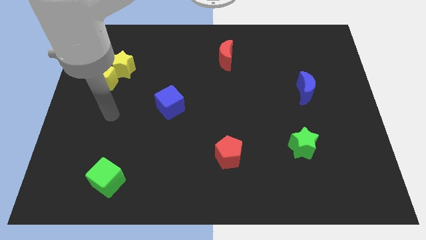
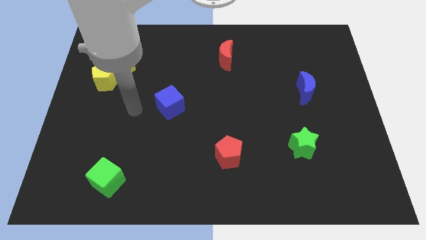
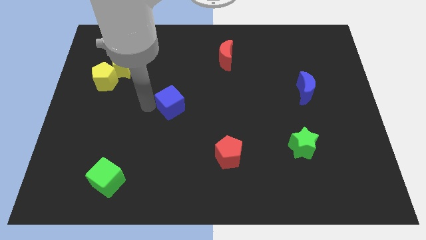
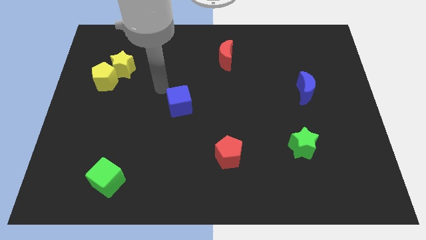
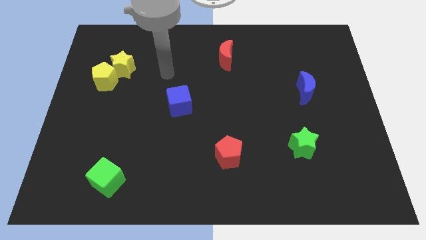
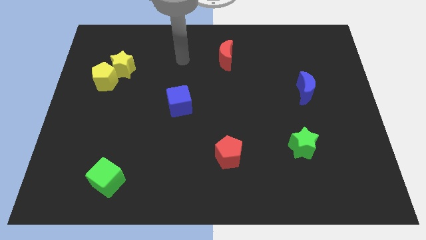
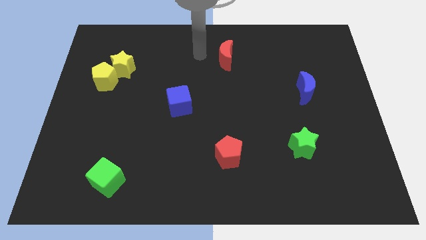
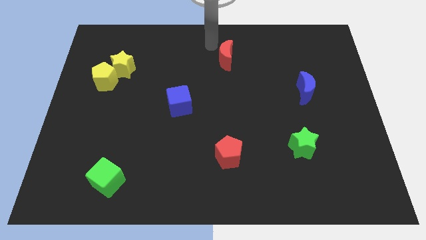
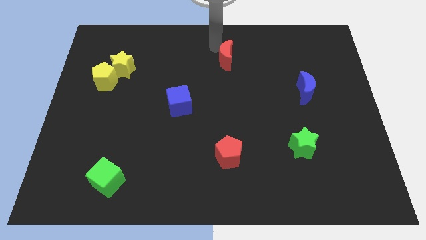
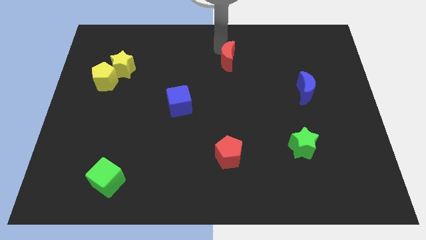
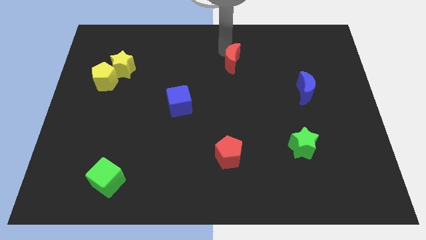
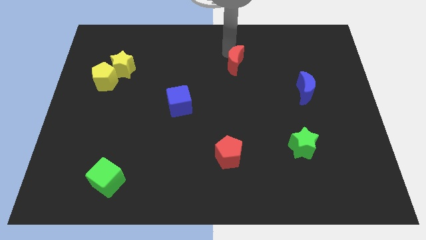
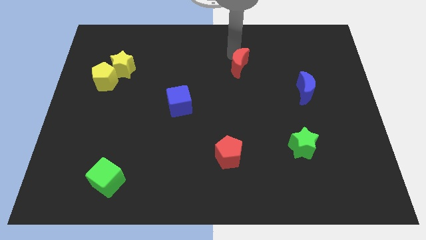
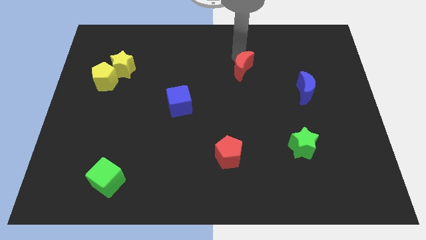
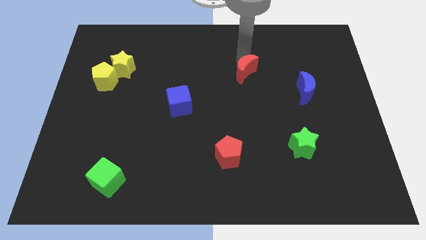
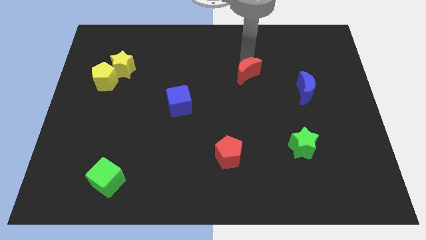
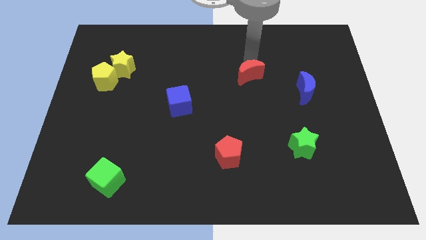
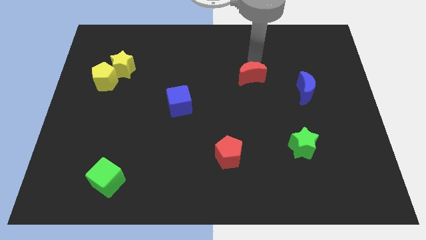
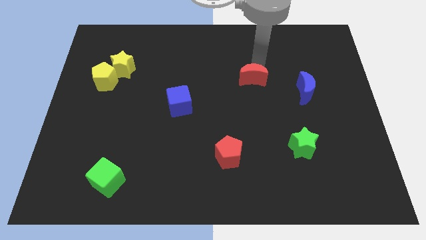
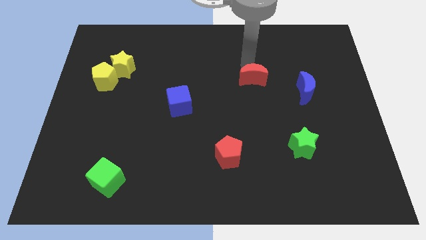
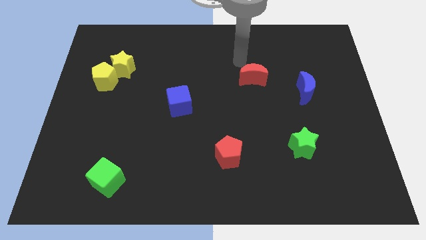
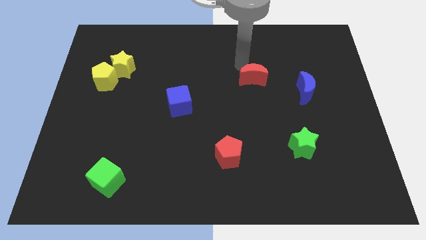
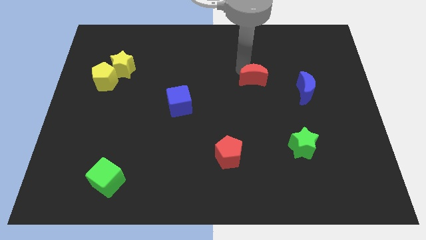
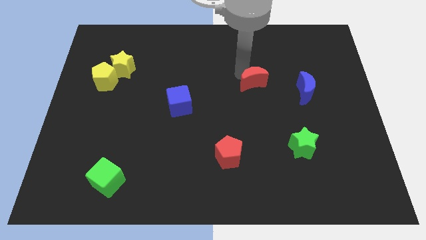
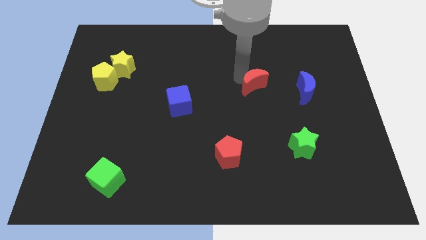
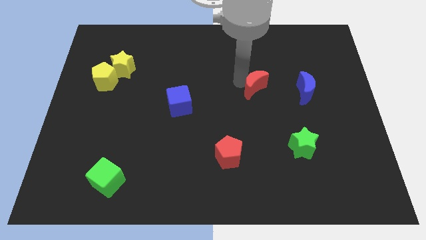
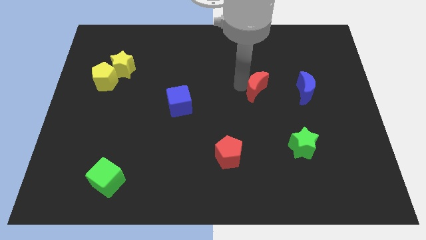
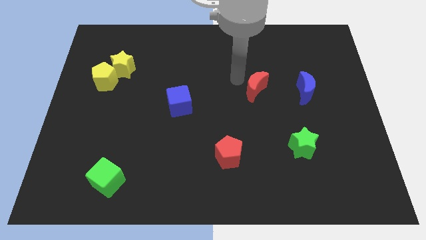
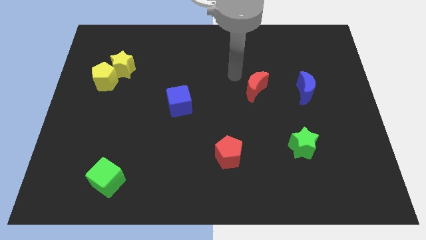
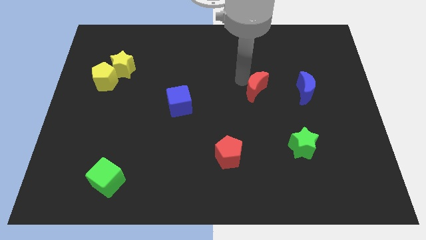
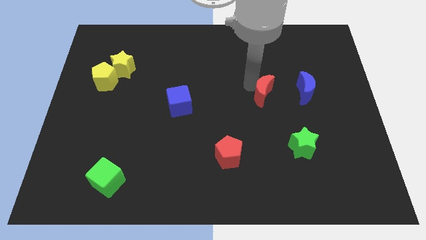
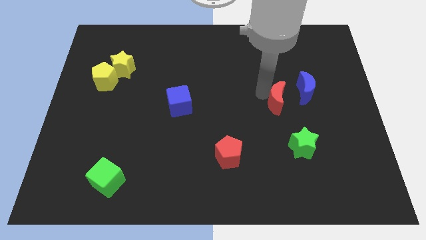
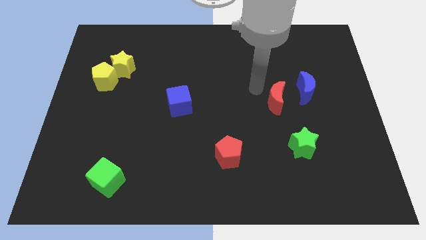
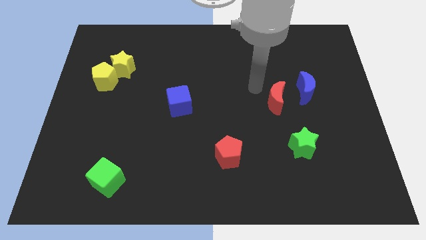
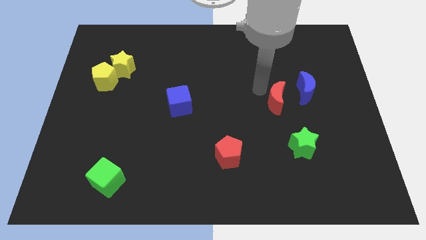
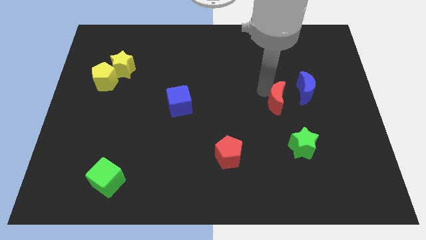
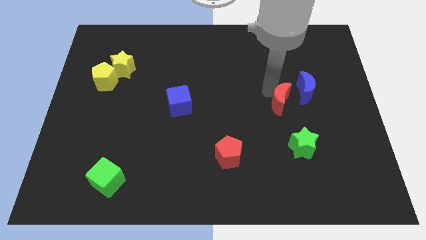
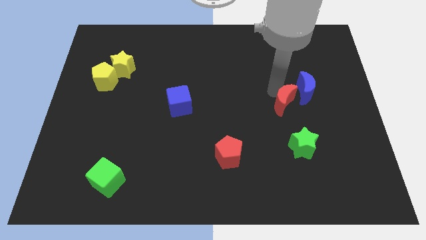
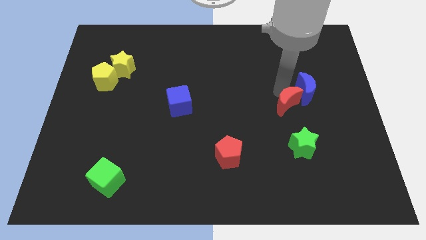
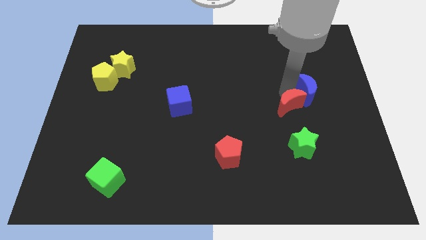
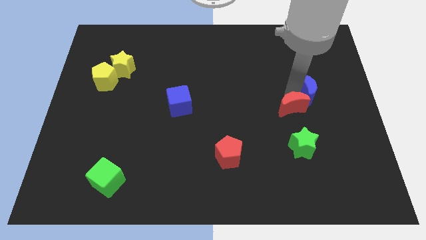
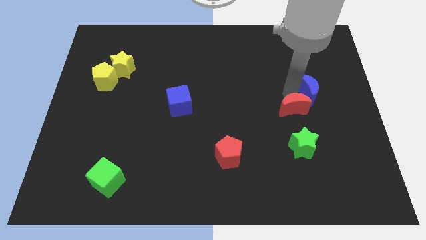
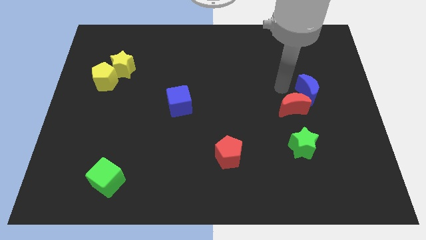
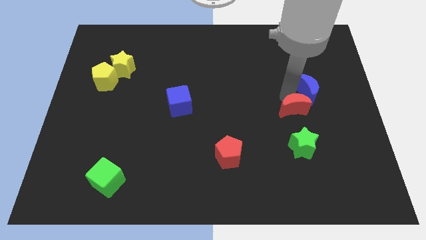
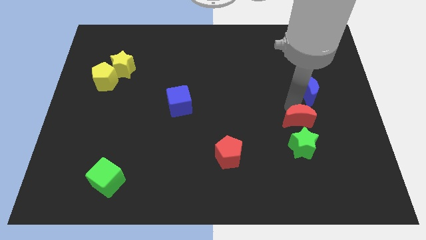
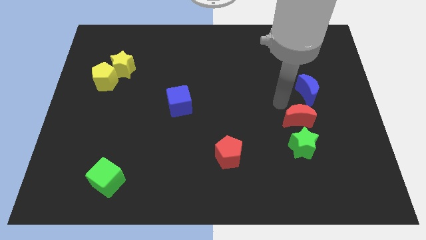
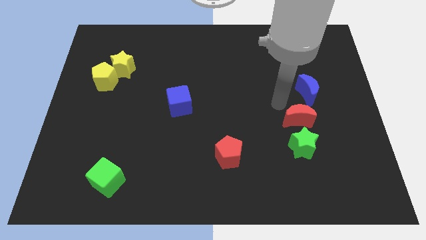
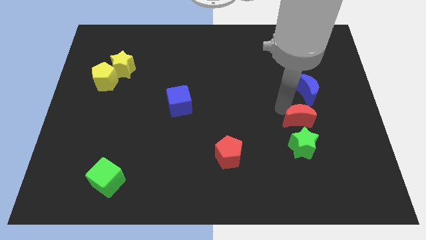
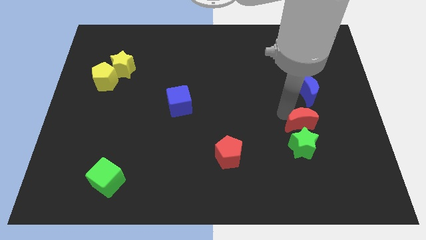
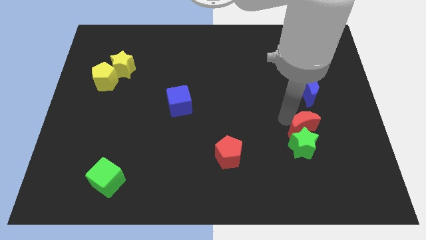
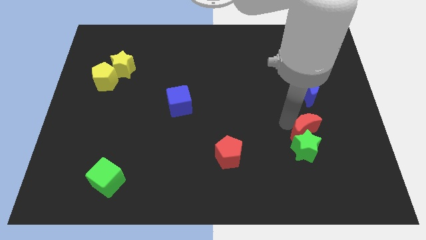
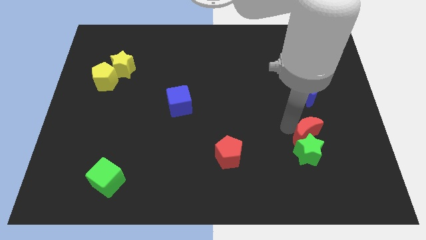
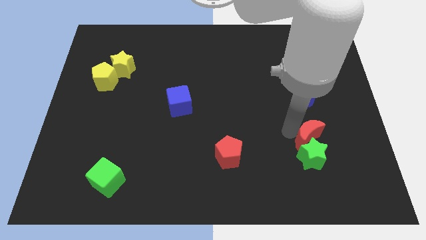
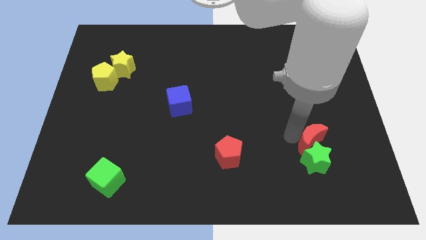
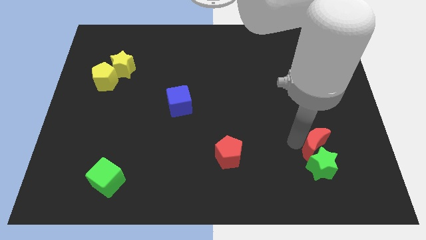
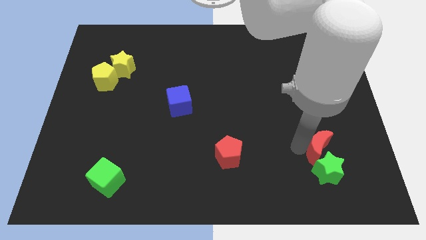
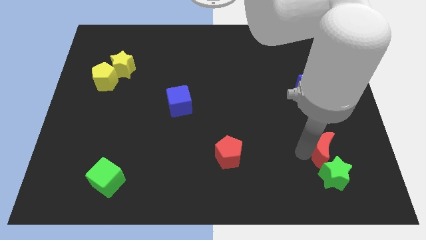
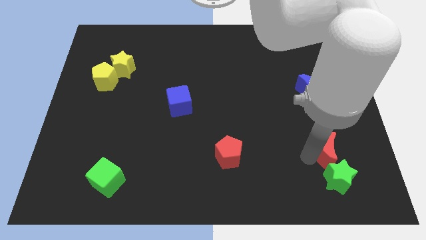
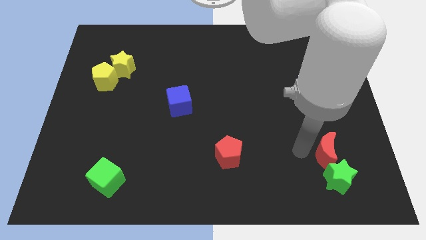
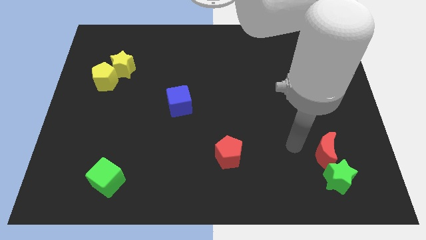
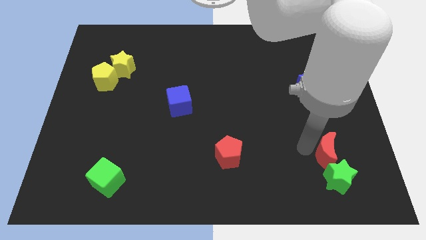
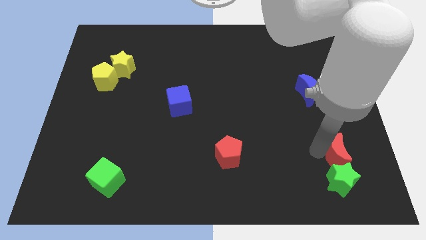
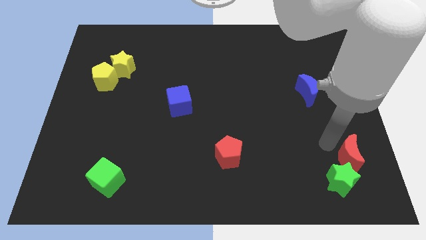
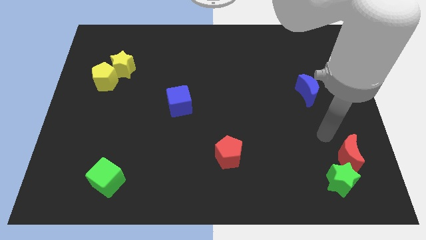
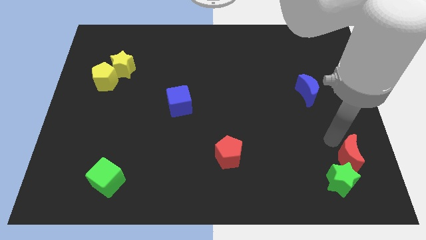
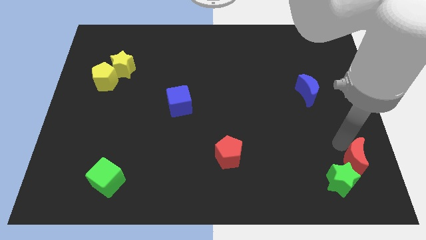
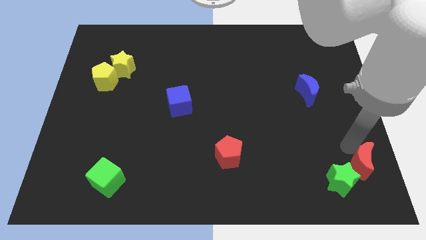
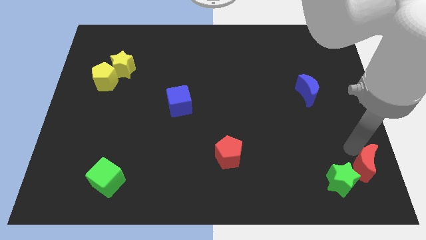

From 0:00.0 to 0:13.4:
push the red moon to the bottom right of the board

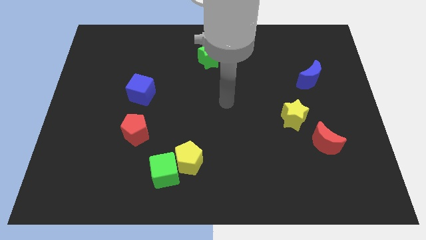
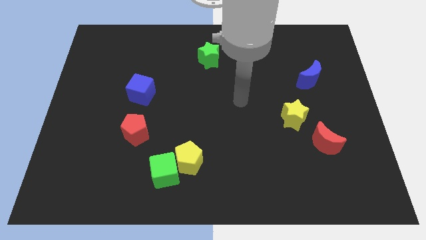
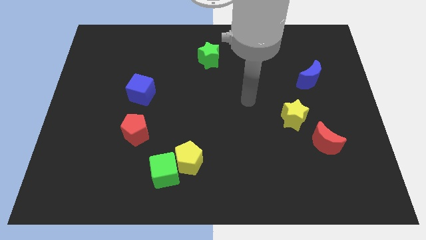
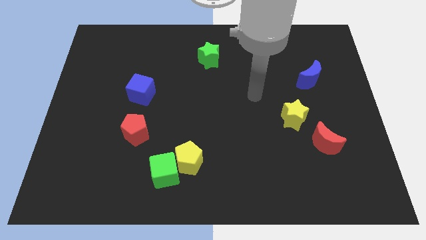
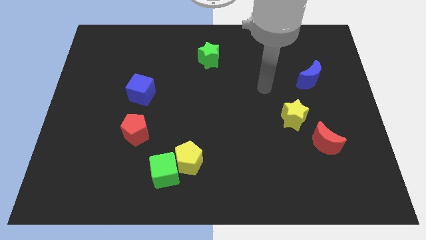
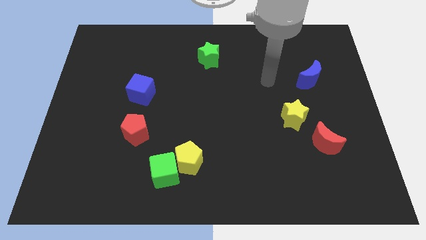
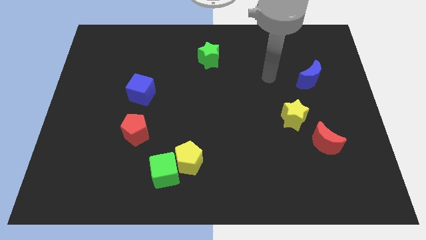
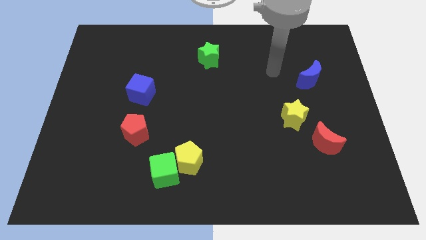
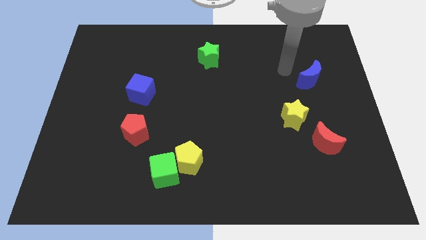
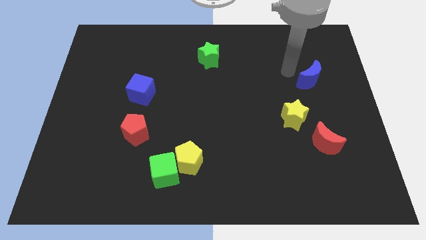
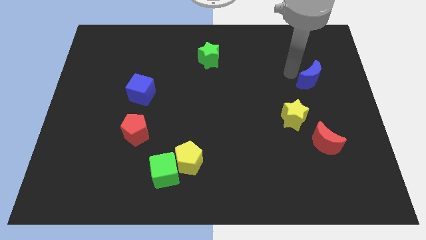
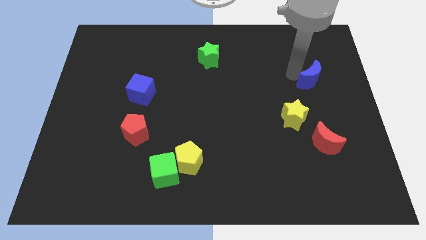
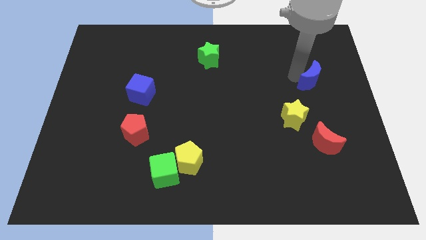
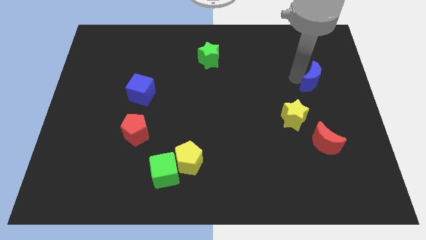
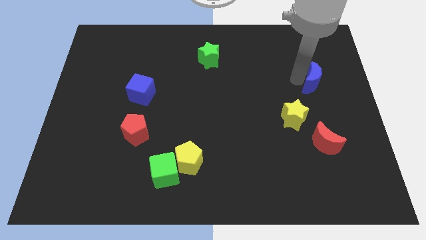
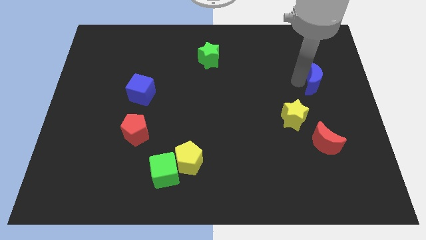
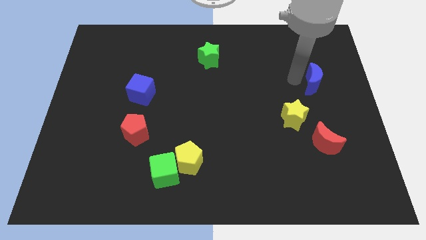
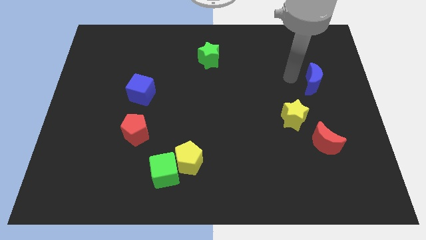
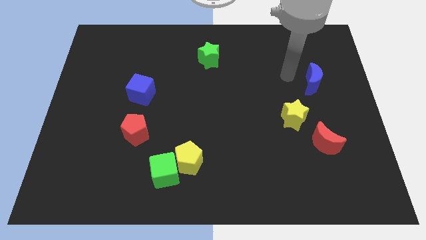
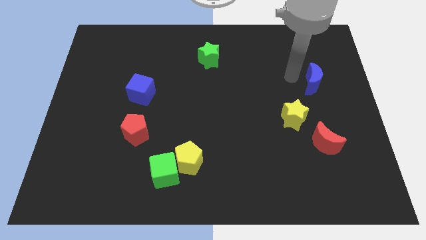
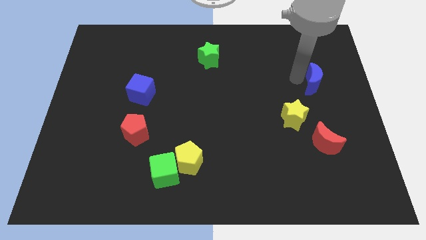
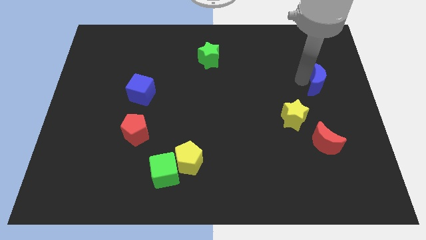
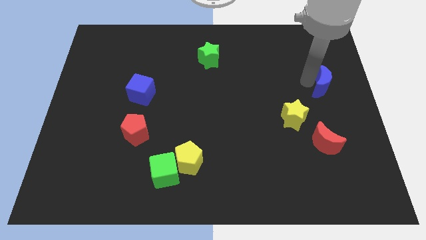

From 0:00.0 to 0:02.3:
move the blue moon to the center right
